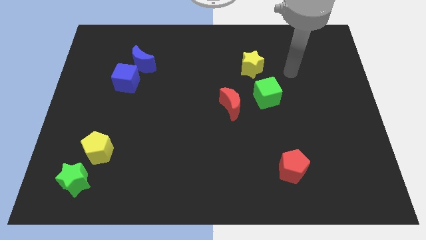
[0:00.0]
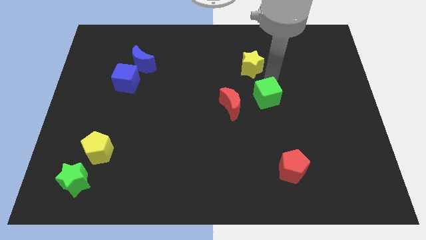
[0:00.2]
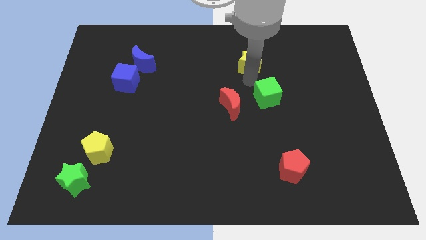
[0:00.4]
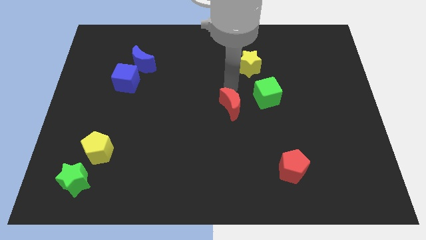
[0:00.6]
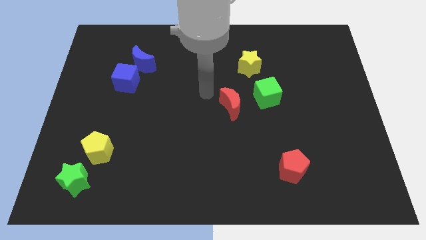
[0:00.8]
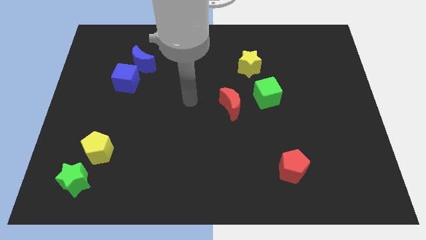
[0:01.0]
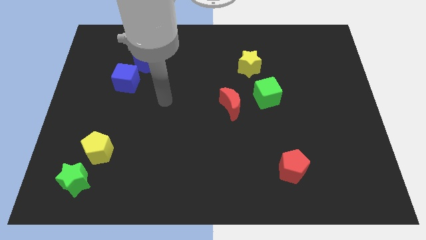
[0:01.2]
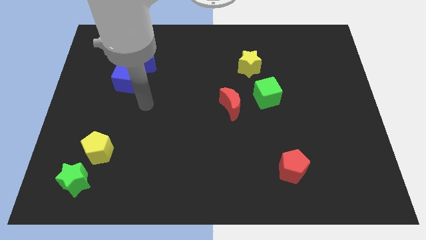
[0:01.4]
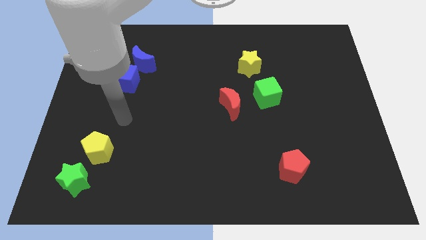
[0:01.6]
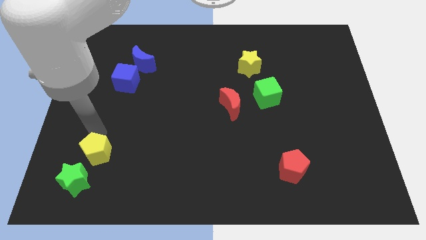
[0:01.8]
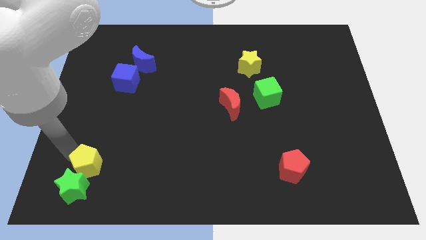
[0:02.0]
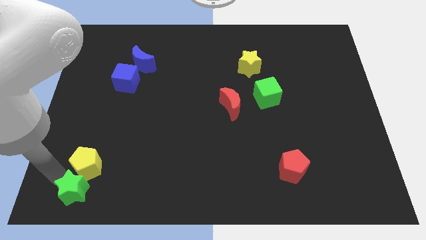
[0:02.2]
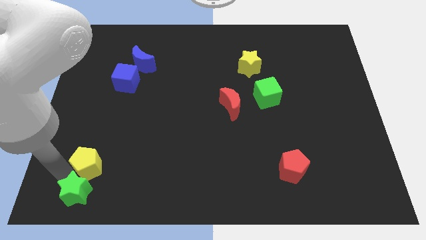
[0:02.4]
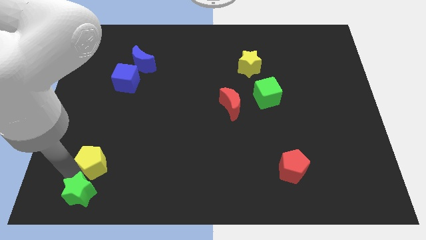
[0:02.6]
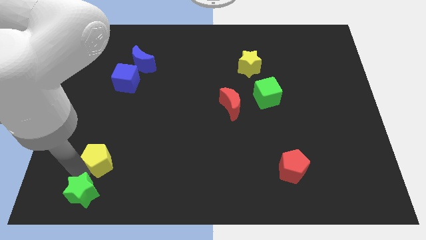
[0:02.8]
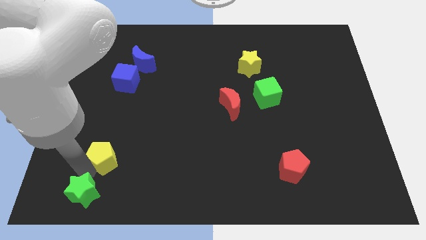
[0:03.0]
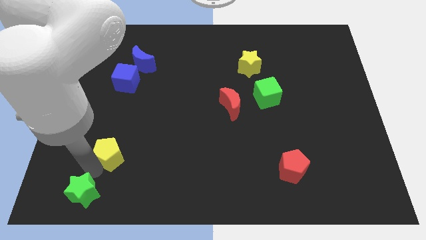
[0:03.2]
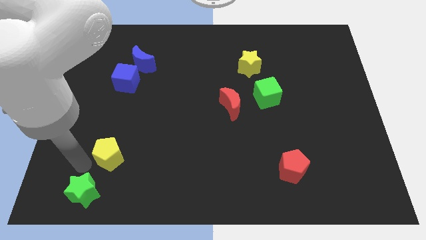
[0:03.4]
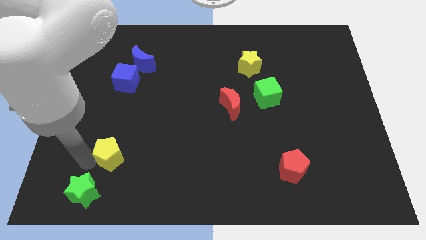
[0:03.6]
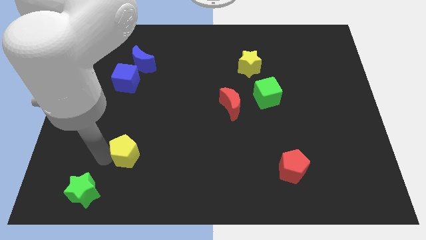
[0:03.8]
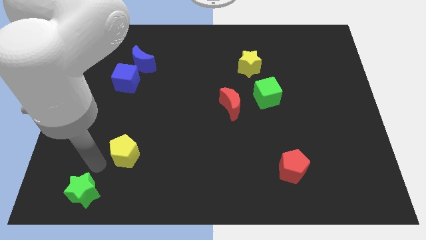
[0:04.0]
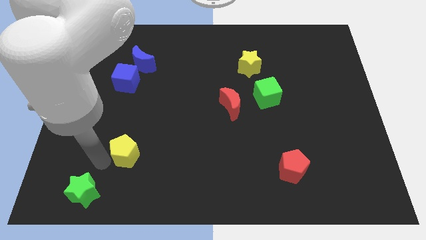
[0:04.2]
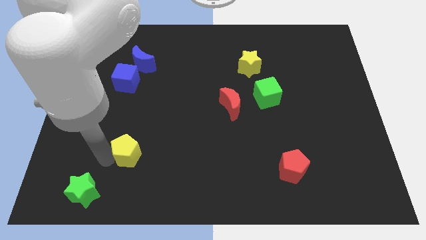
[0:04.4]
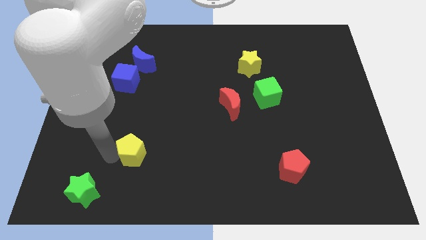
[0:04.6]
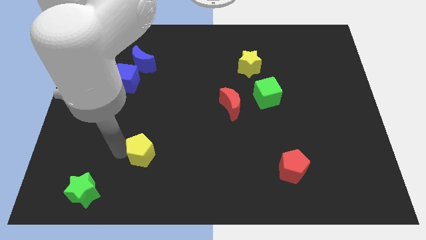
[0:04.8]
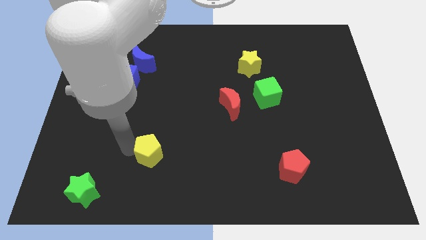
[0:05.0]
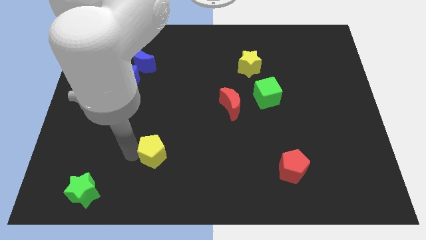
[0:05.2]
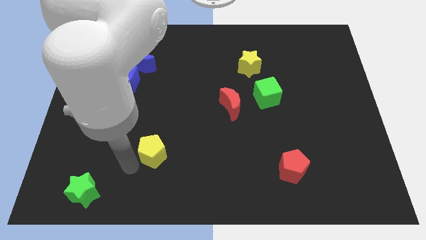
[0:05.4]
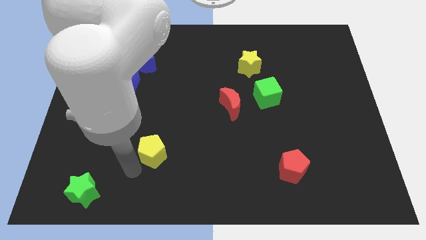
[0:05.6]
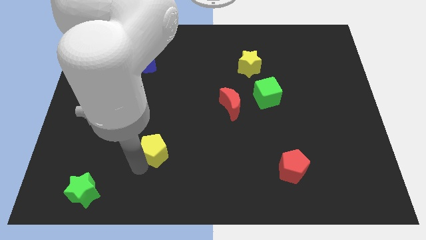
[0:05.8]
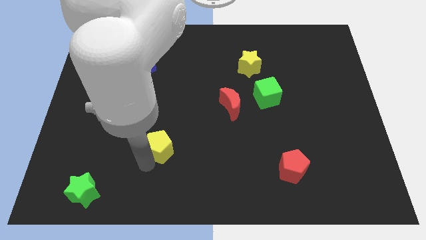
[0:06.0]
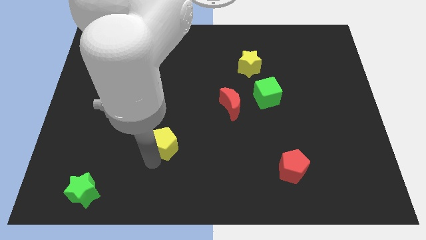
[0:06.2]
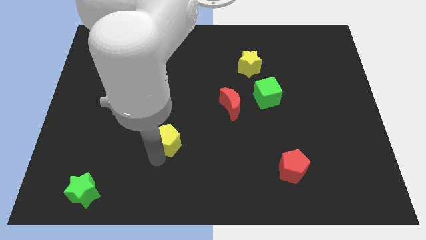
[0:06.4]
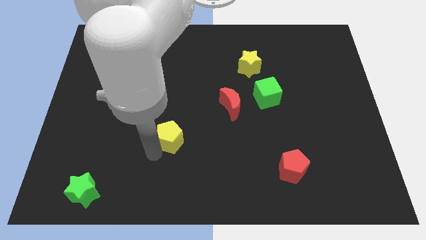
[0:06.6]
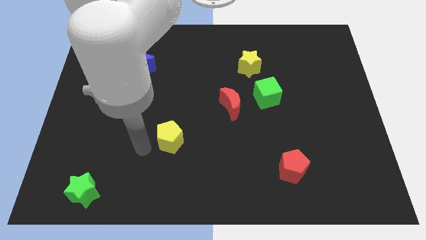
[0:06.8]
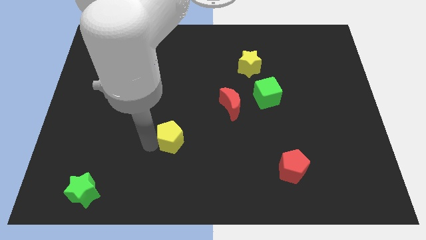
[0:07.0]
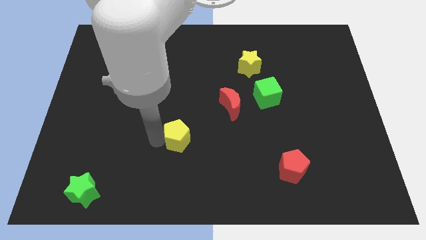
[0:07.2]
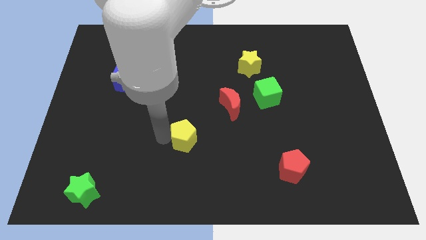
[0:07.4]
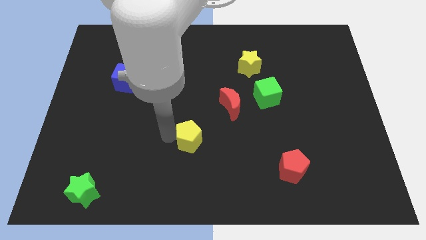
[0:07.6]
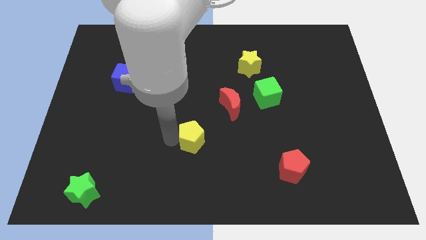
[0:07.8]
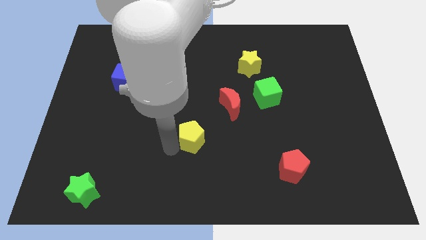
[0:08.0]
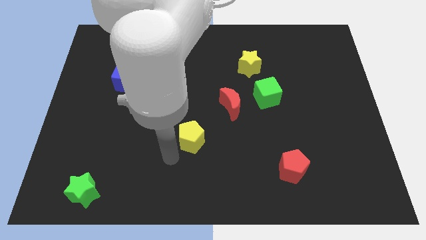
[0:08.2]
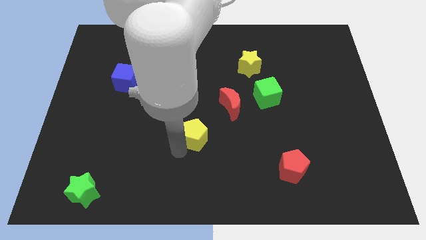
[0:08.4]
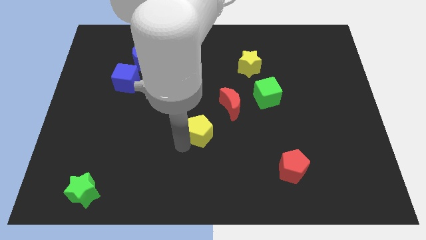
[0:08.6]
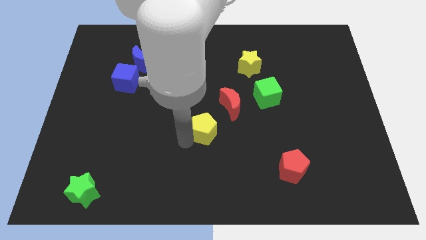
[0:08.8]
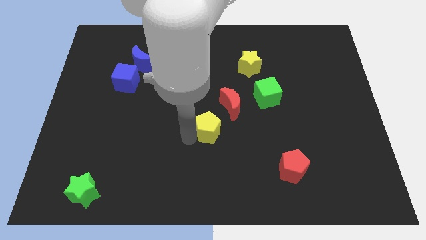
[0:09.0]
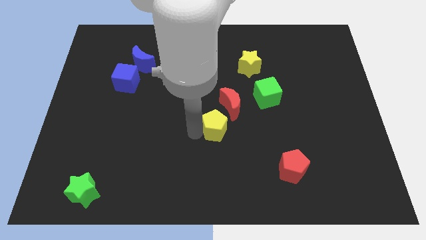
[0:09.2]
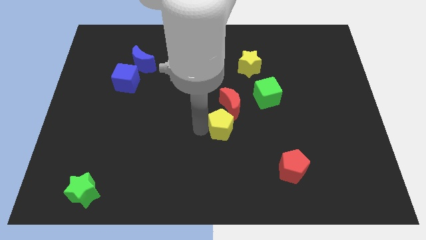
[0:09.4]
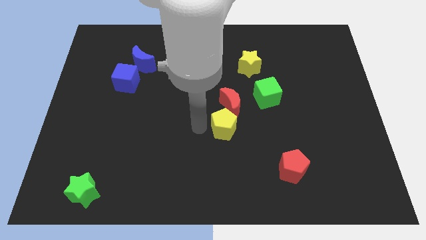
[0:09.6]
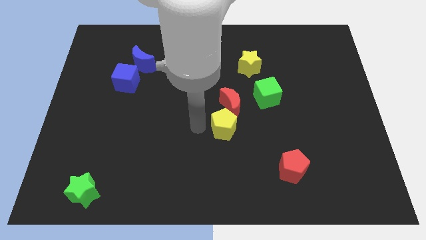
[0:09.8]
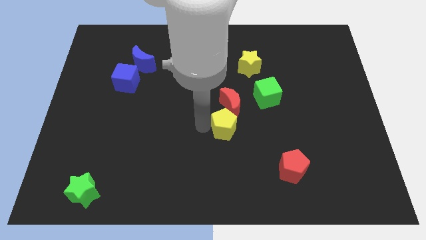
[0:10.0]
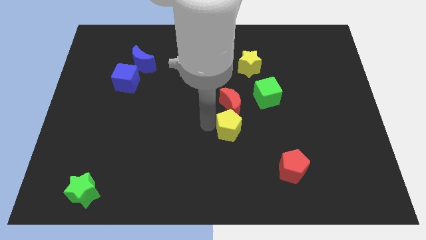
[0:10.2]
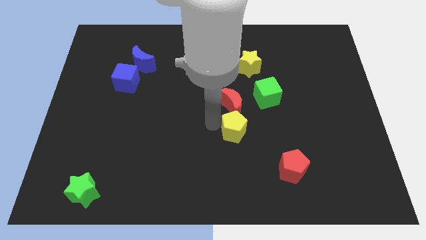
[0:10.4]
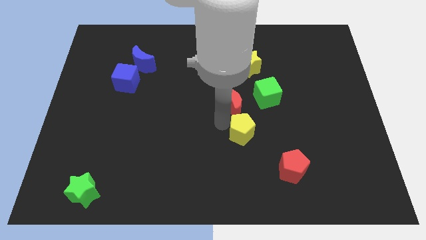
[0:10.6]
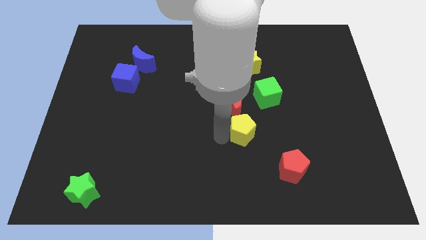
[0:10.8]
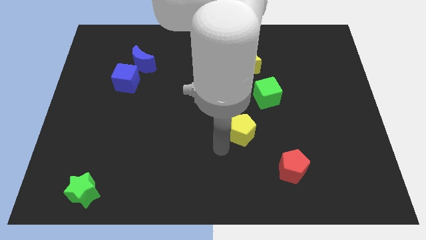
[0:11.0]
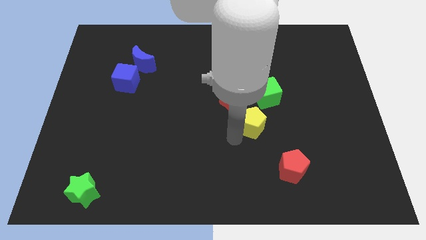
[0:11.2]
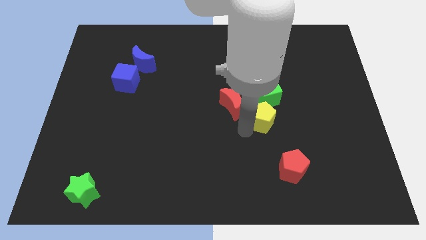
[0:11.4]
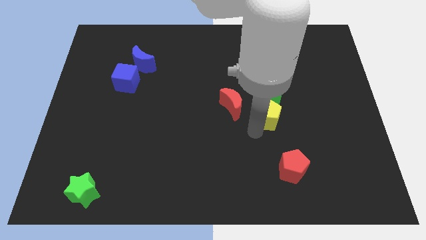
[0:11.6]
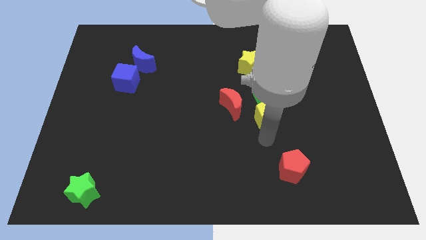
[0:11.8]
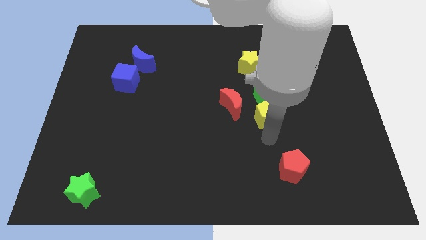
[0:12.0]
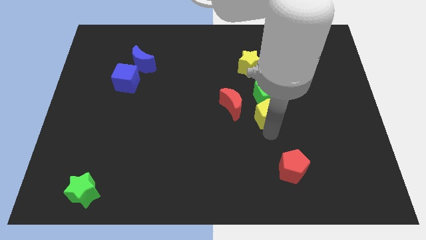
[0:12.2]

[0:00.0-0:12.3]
put the yellow pentagon close to the green cube

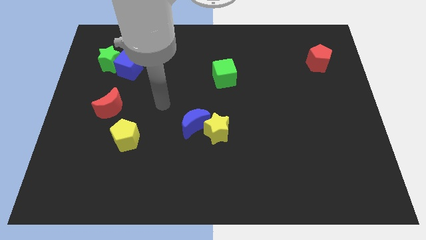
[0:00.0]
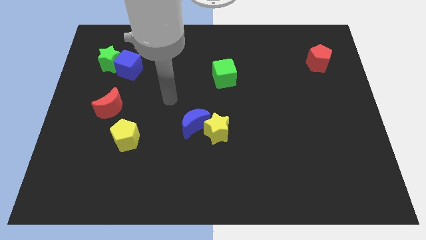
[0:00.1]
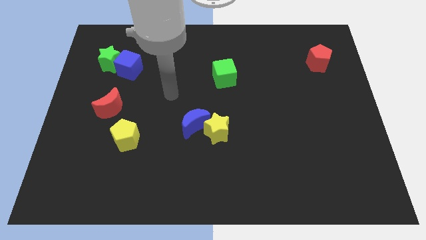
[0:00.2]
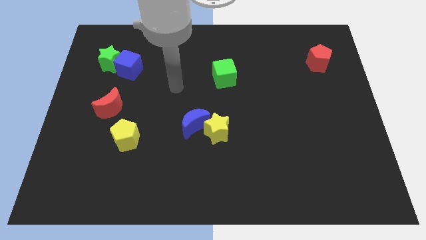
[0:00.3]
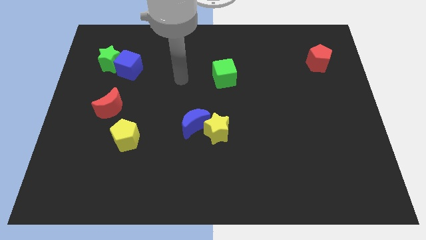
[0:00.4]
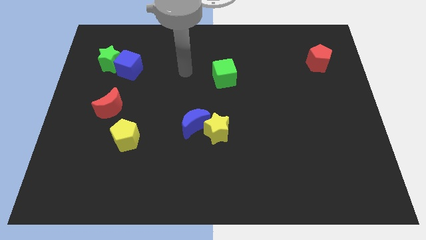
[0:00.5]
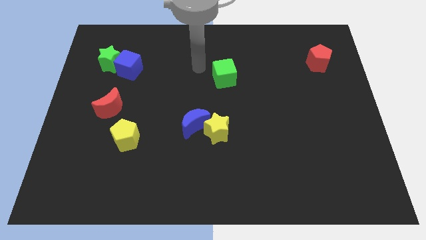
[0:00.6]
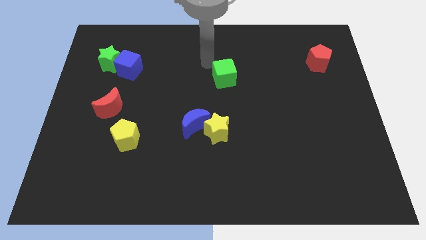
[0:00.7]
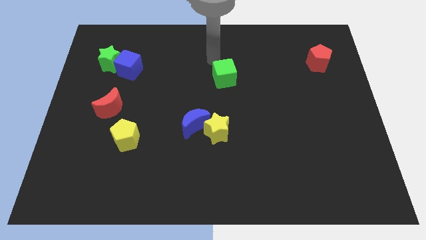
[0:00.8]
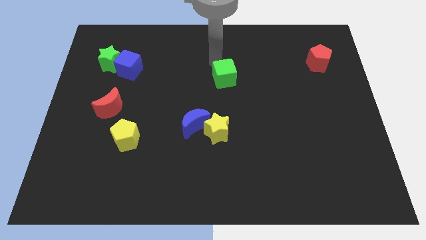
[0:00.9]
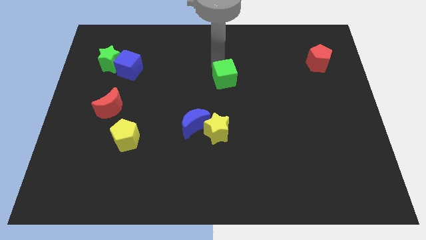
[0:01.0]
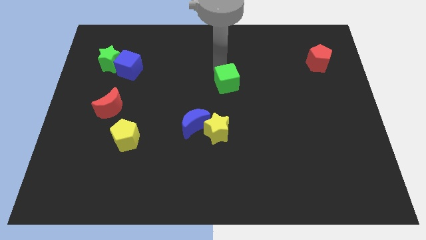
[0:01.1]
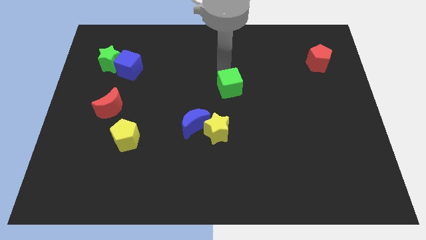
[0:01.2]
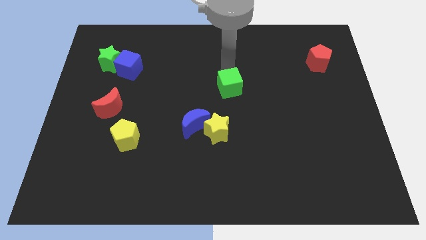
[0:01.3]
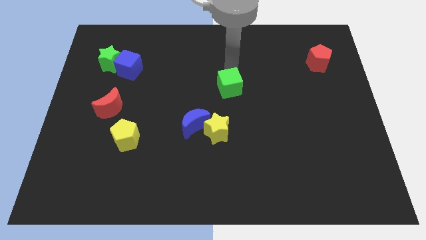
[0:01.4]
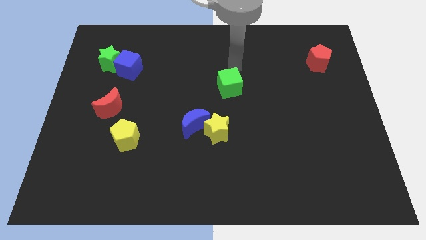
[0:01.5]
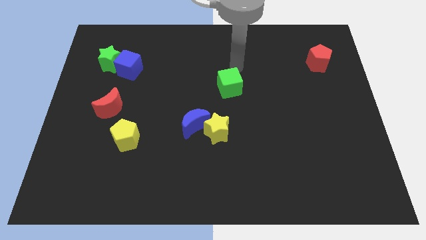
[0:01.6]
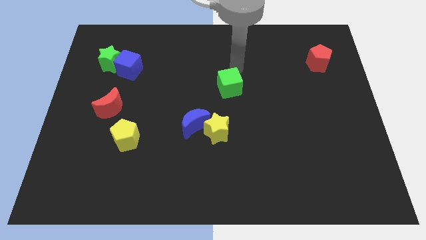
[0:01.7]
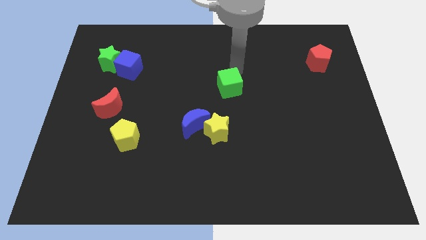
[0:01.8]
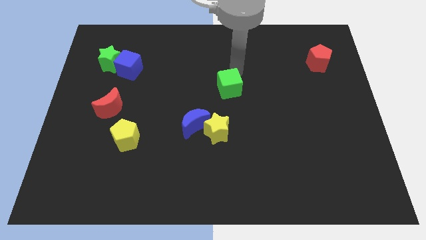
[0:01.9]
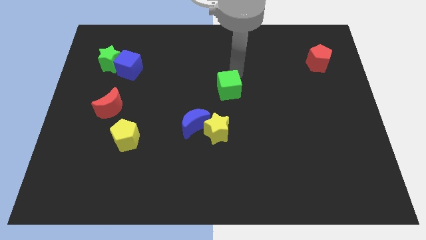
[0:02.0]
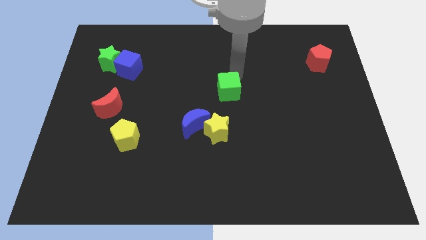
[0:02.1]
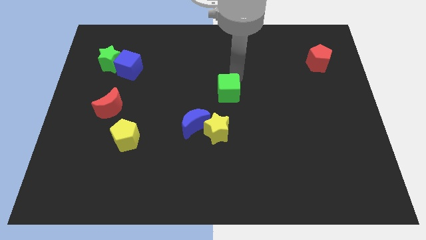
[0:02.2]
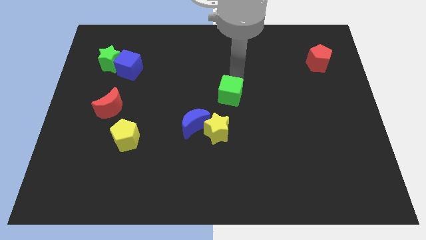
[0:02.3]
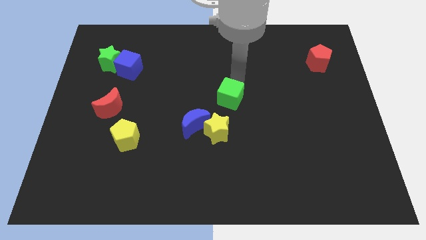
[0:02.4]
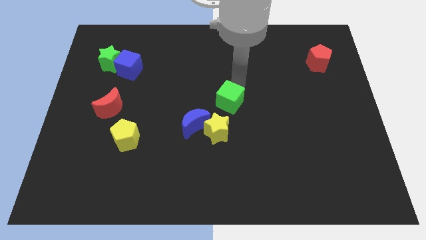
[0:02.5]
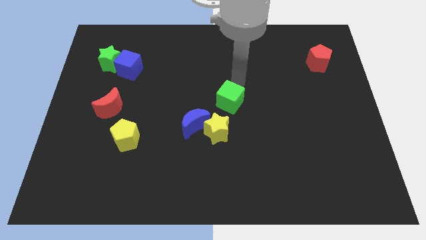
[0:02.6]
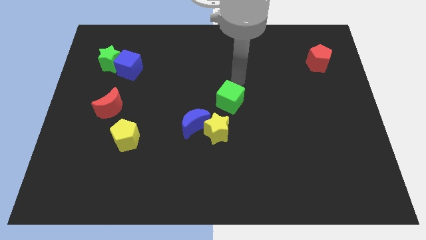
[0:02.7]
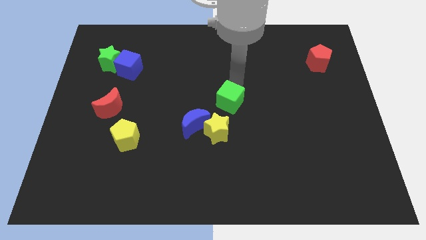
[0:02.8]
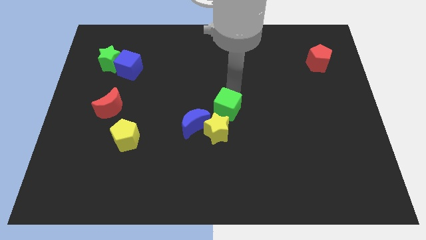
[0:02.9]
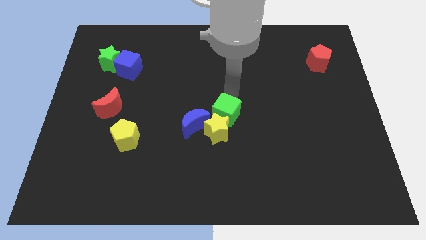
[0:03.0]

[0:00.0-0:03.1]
push the green cube to the yellow star
